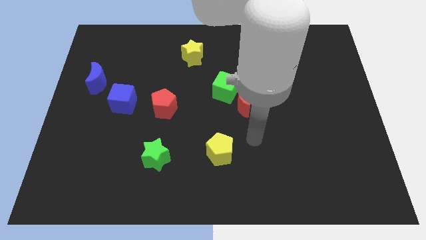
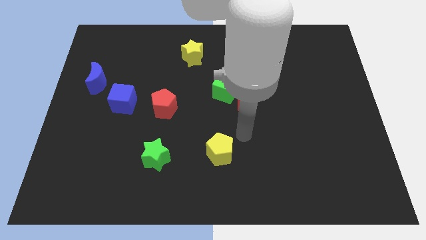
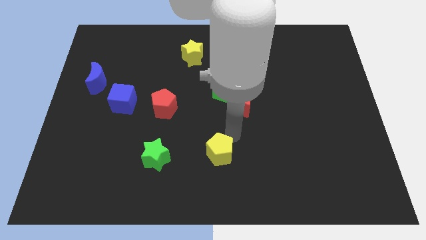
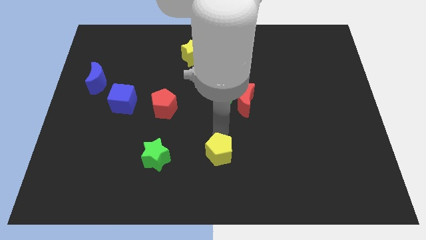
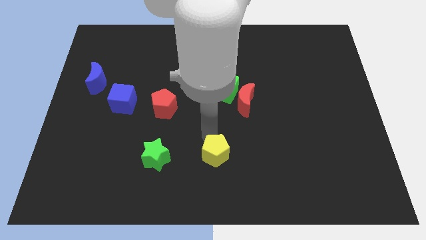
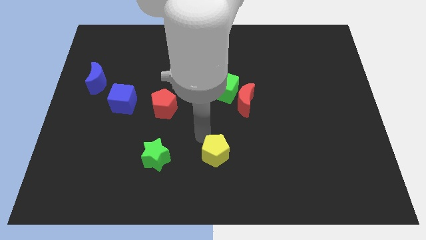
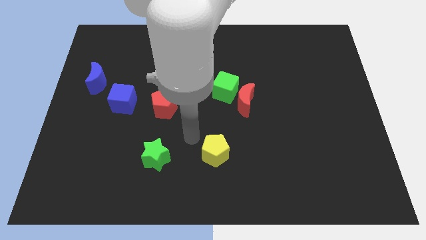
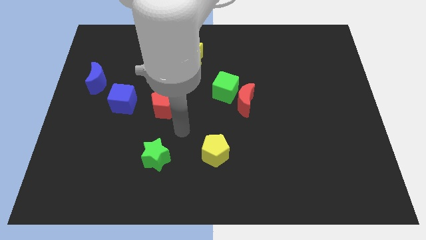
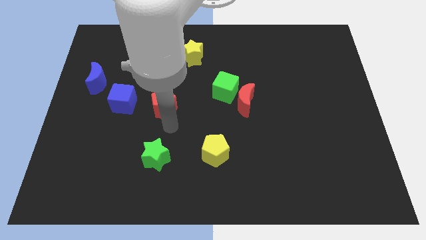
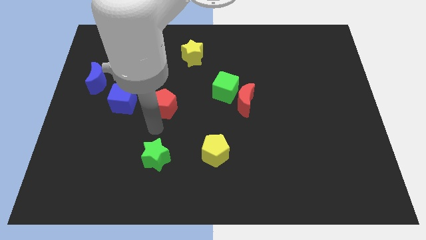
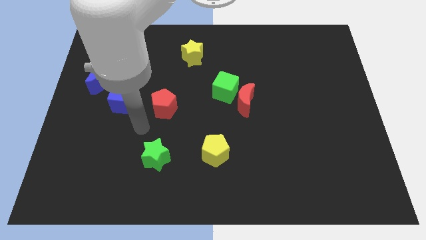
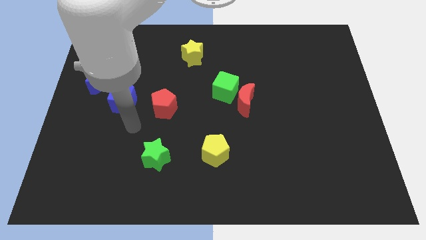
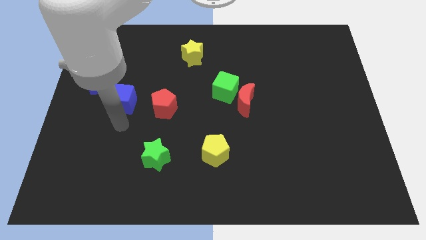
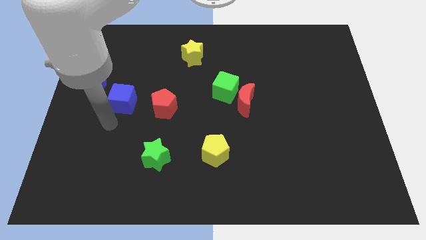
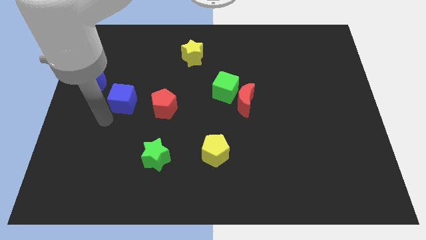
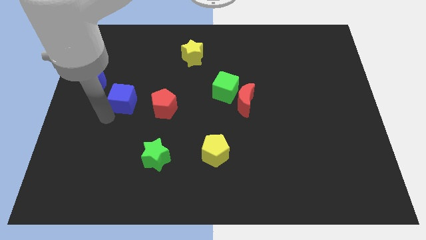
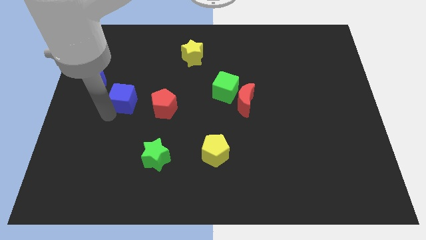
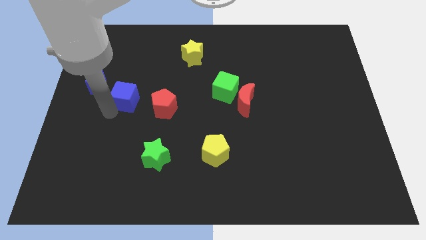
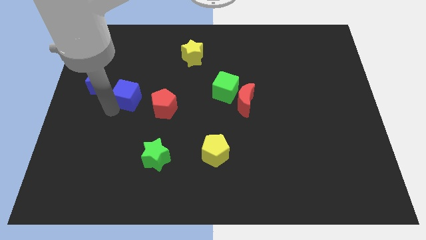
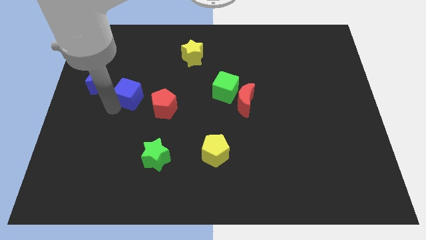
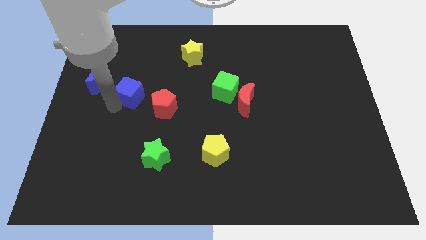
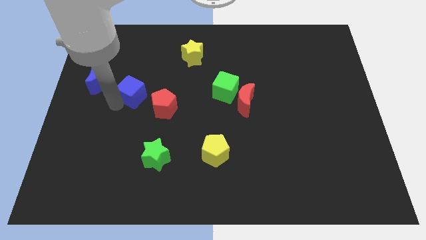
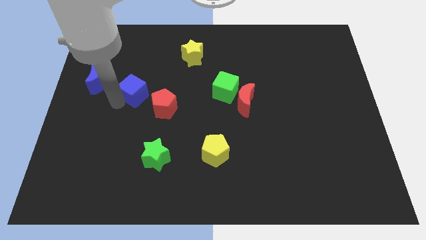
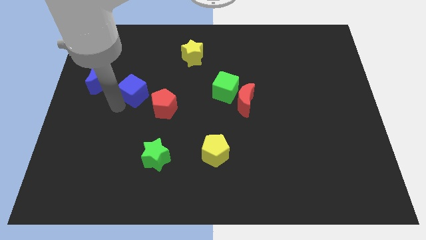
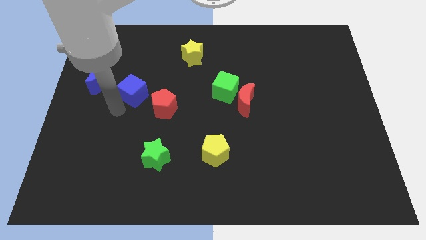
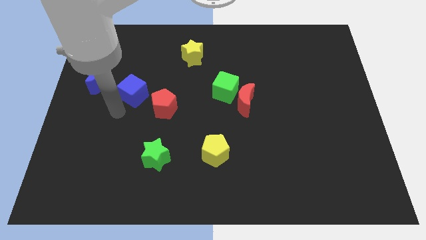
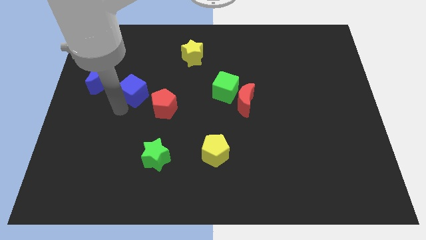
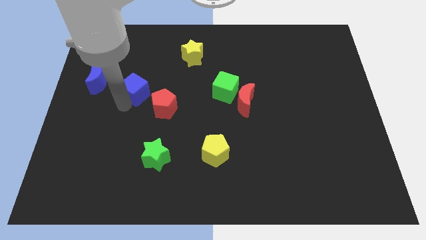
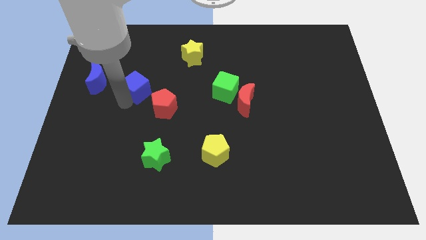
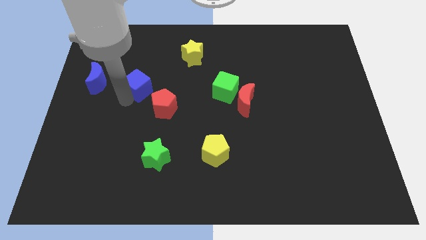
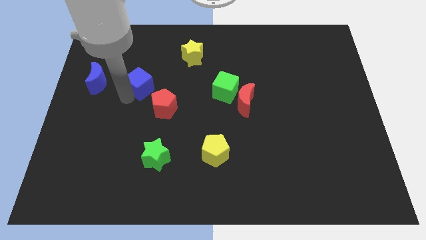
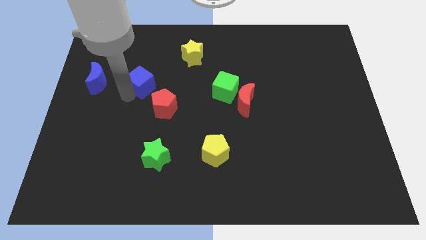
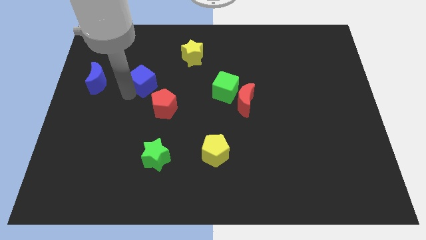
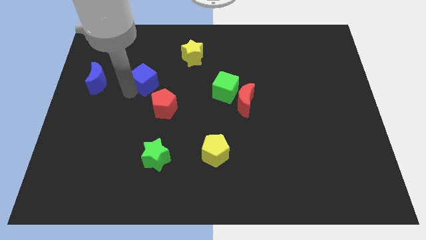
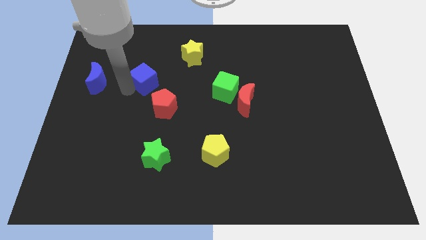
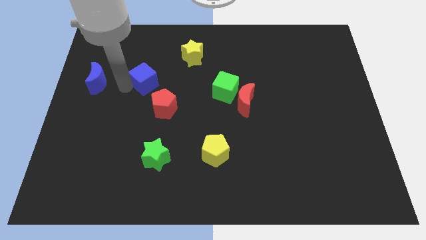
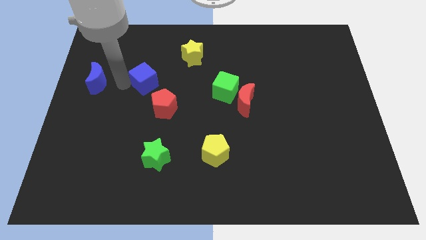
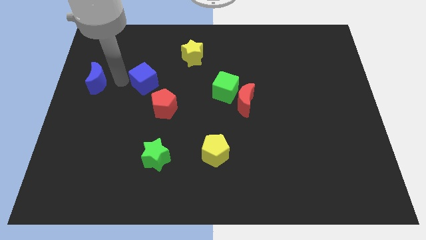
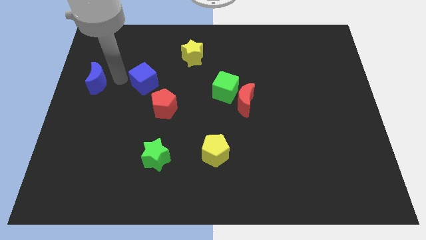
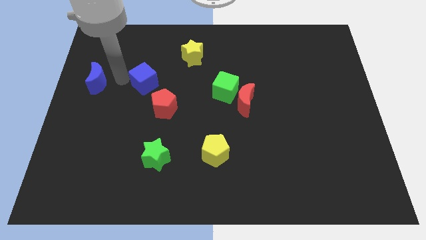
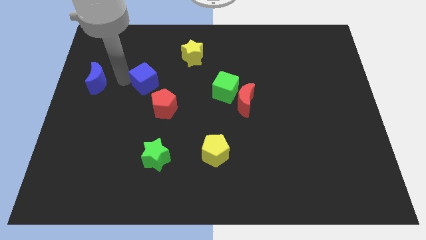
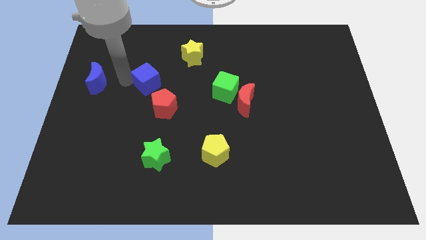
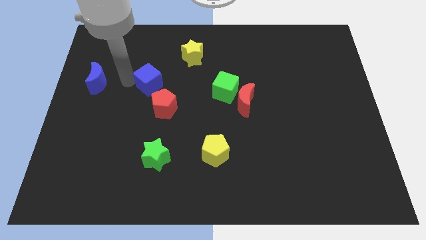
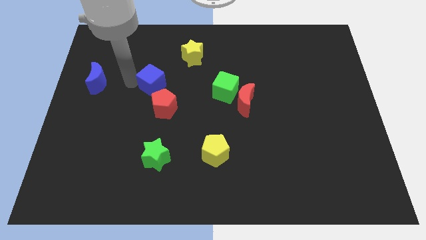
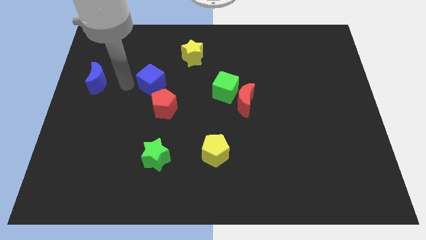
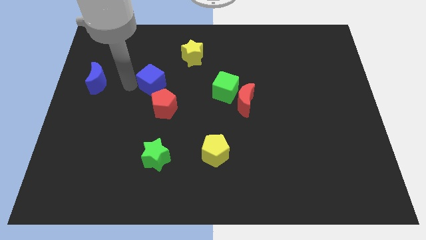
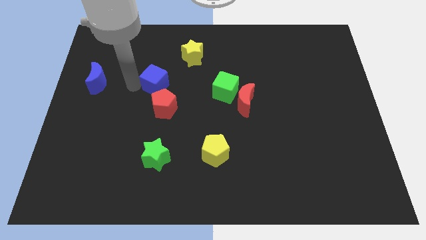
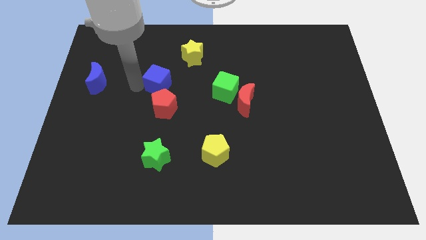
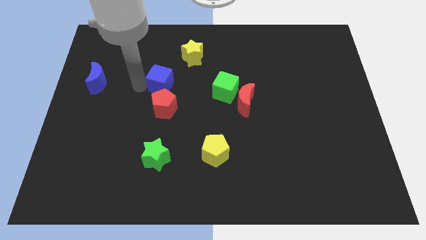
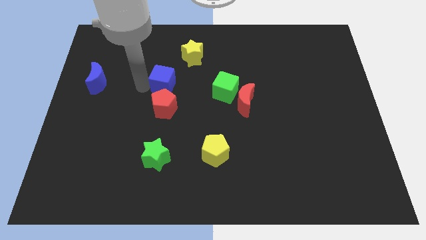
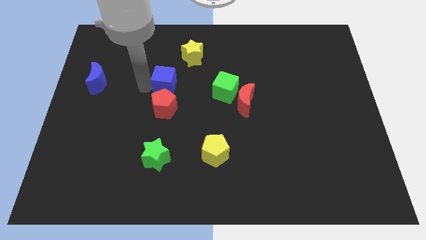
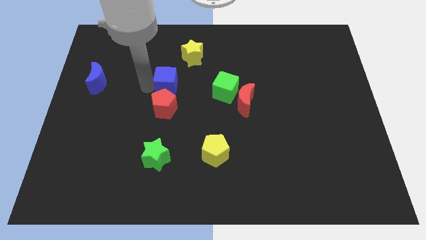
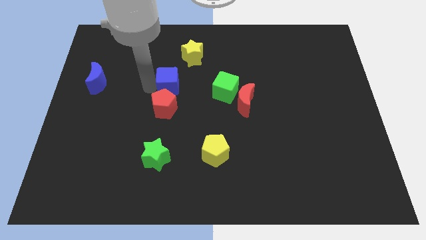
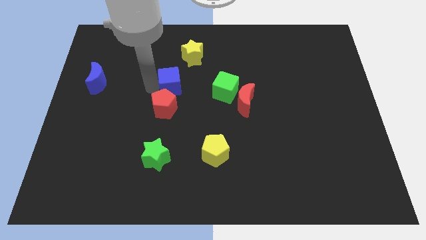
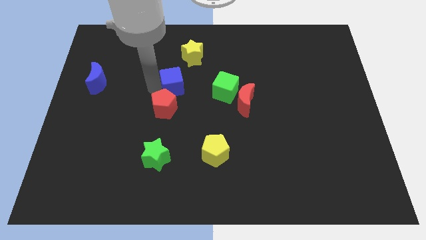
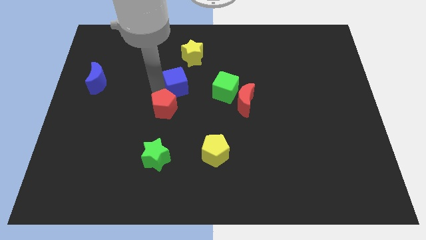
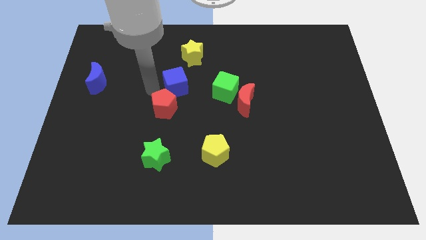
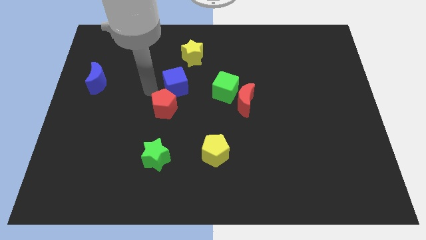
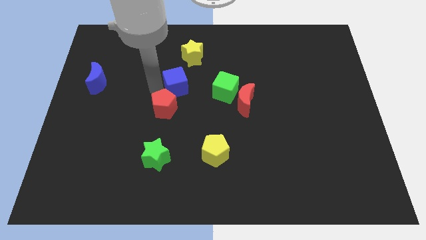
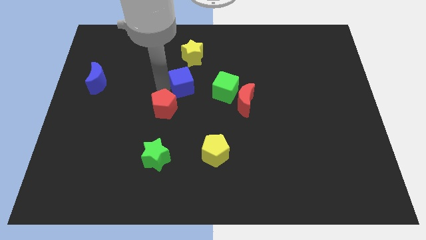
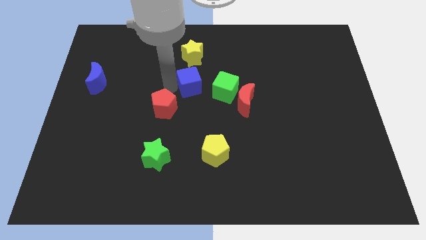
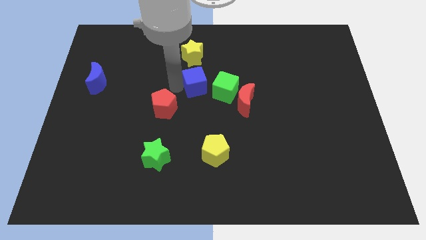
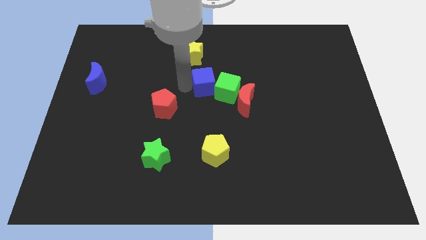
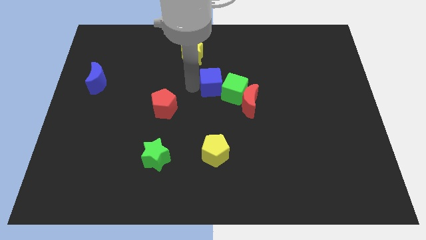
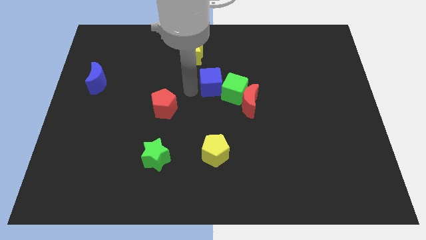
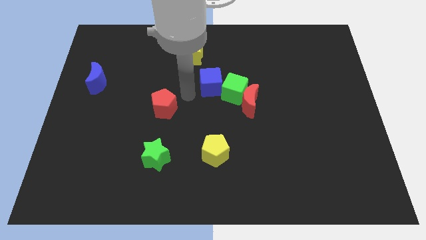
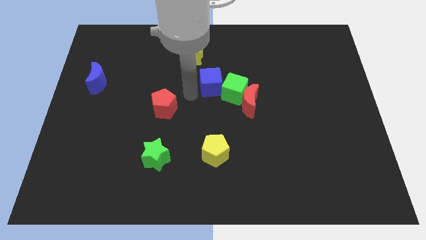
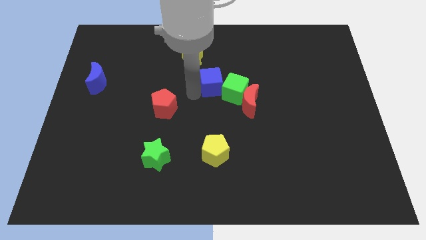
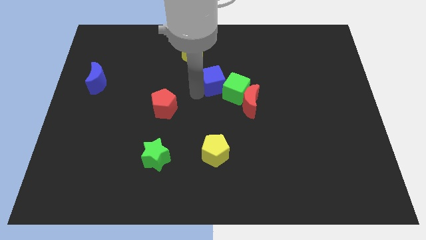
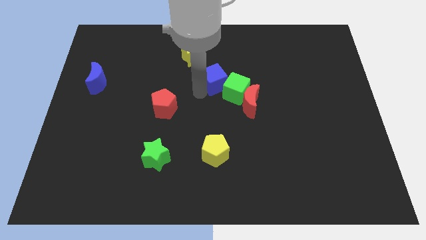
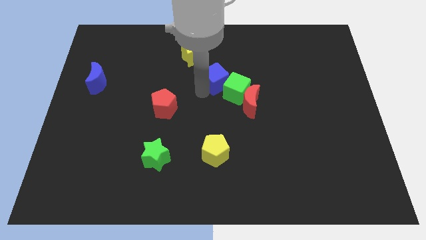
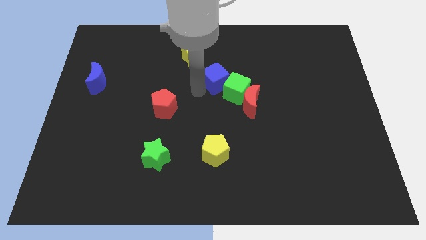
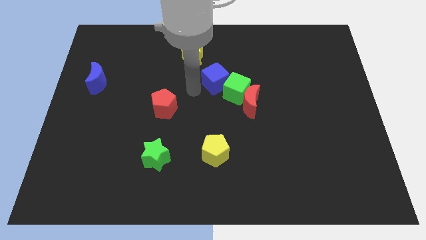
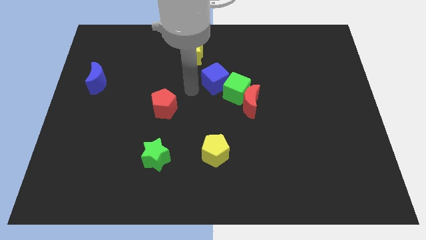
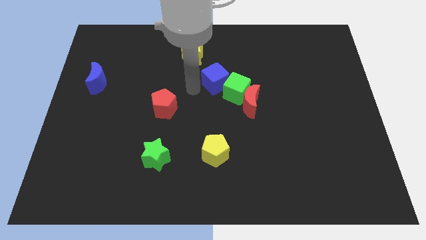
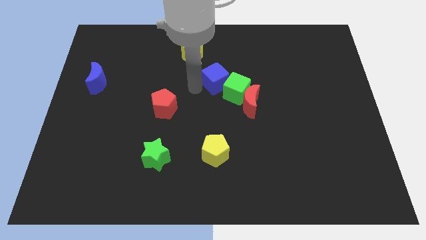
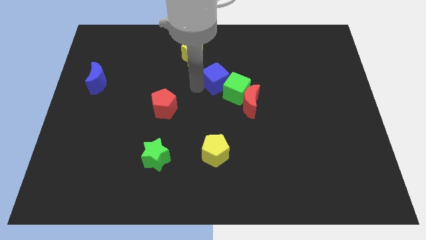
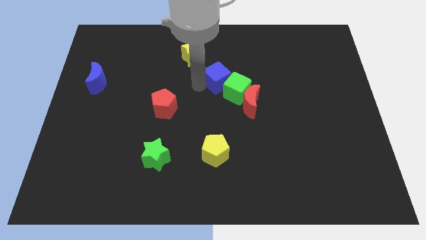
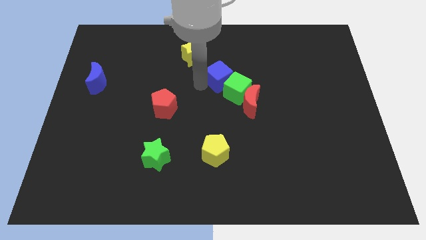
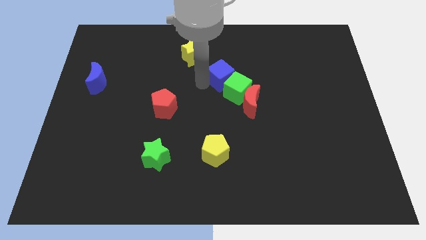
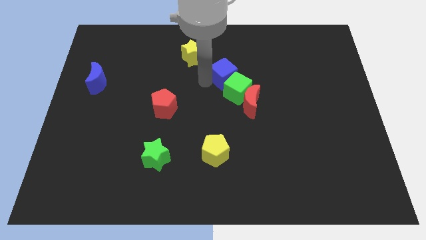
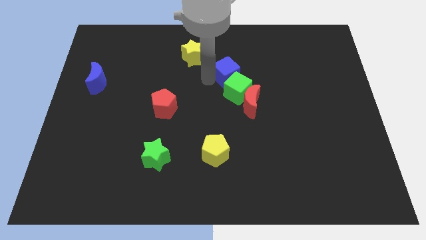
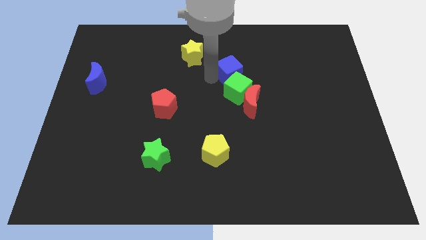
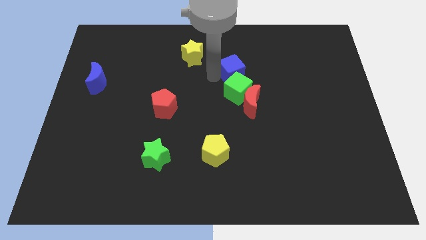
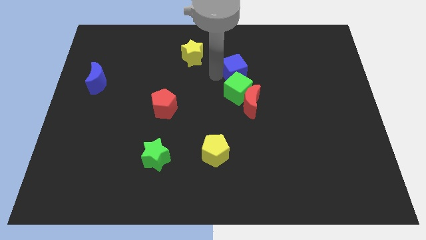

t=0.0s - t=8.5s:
push the blue cube diagonally up and to the right of the green cube
